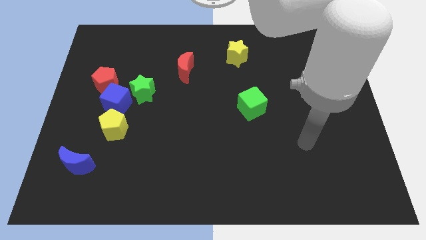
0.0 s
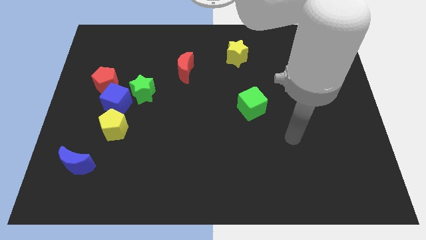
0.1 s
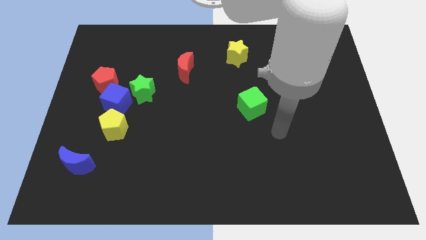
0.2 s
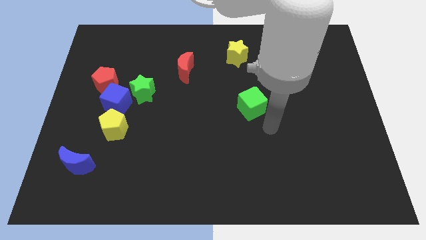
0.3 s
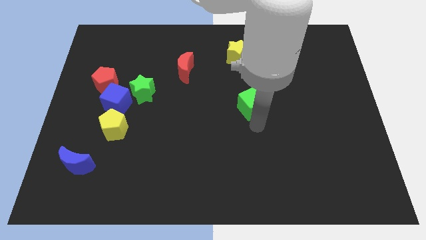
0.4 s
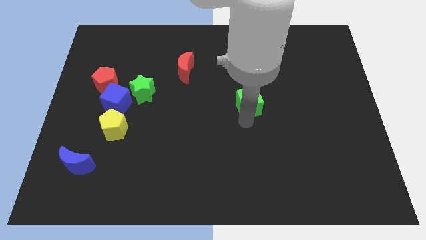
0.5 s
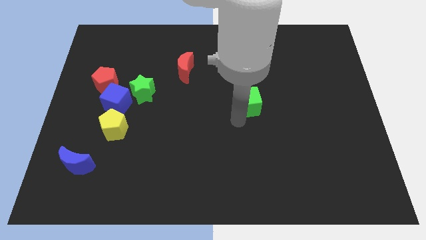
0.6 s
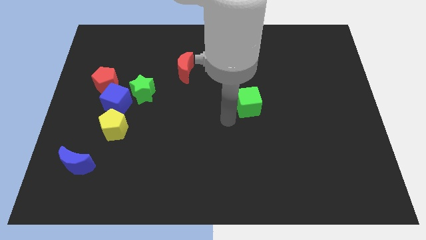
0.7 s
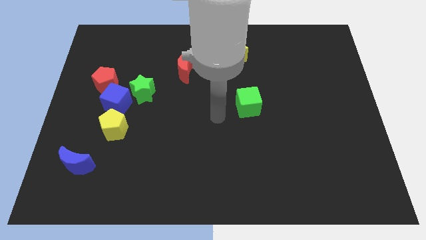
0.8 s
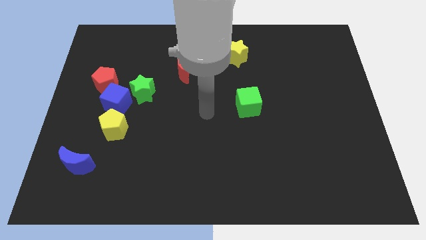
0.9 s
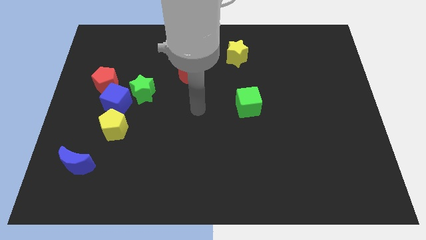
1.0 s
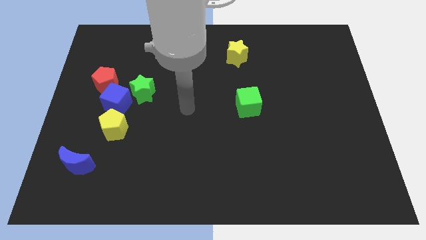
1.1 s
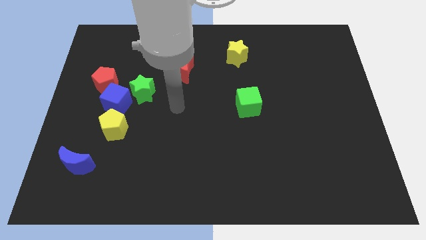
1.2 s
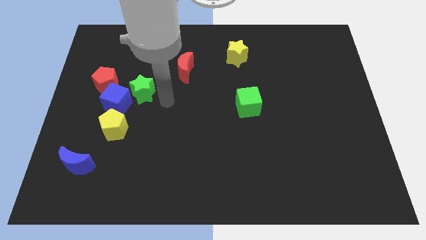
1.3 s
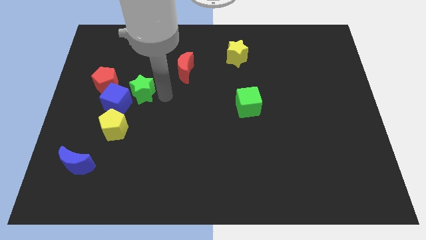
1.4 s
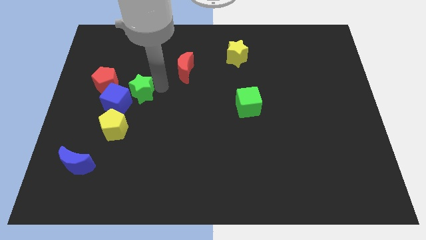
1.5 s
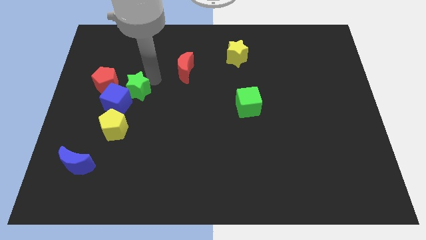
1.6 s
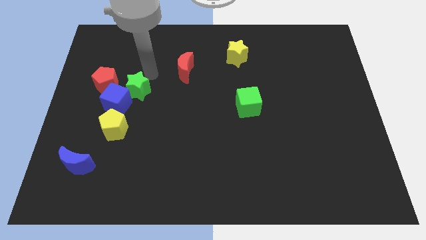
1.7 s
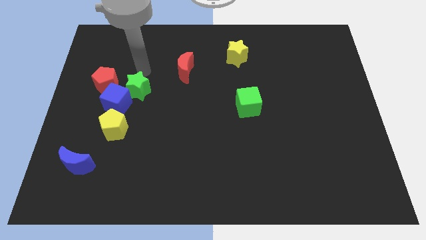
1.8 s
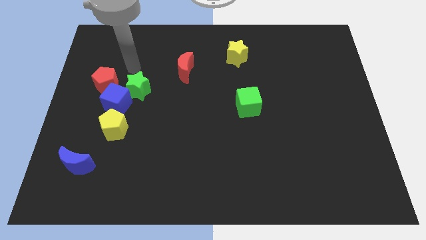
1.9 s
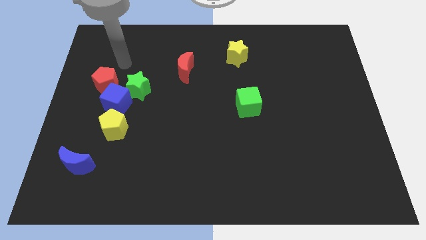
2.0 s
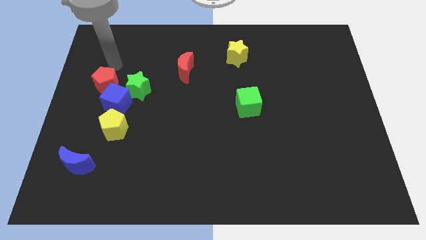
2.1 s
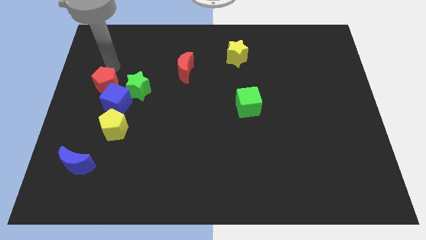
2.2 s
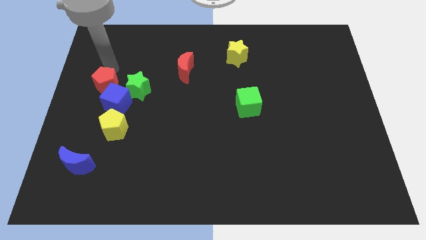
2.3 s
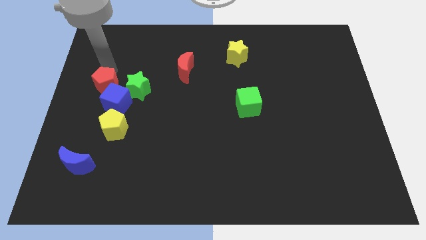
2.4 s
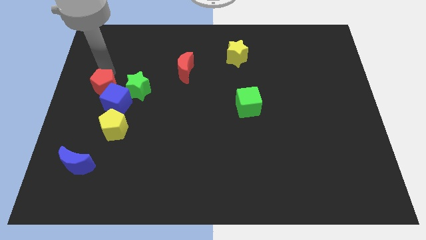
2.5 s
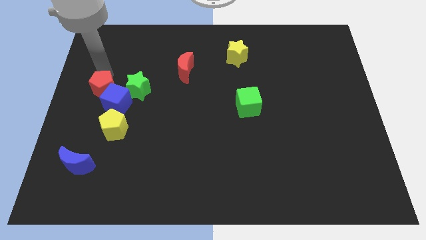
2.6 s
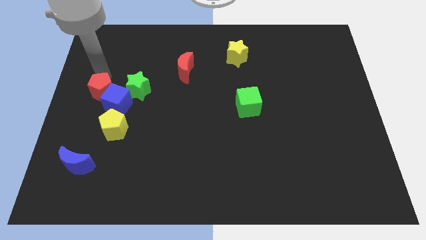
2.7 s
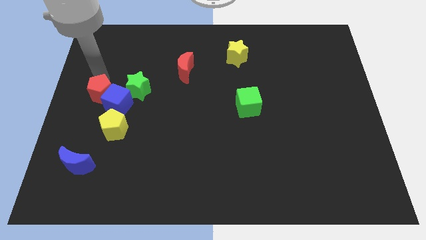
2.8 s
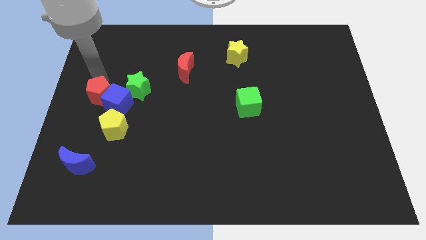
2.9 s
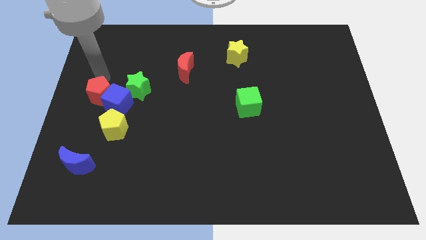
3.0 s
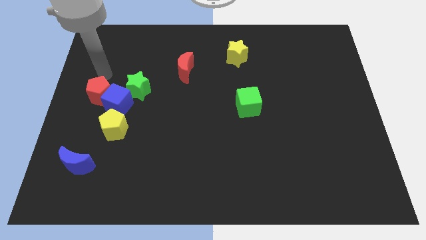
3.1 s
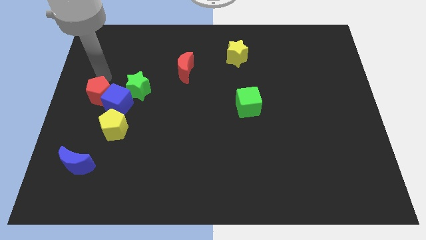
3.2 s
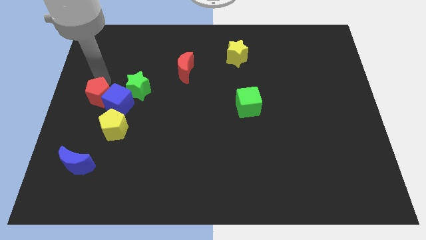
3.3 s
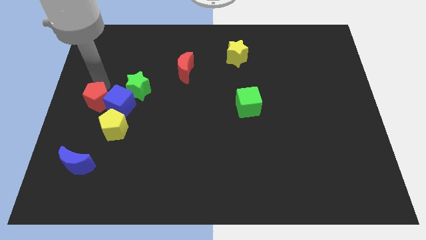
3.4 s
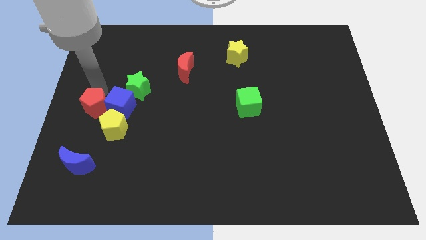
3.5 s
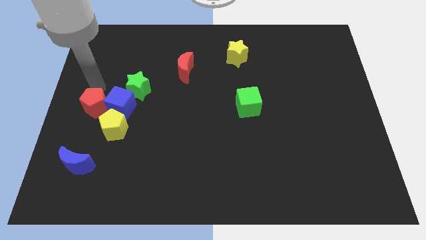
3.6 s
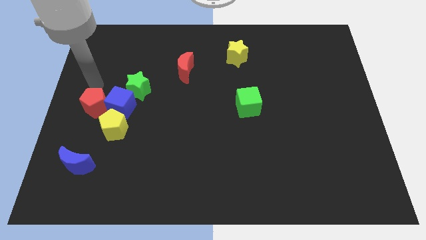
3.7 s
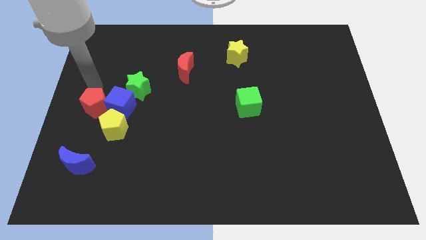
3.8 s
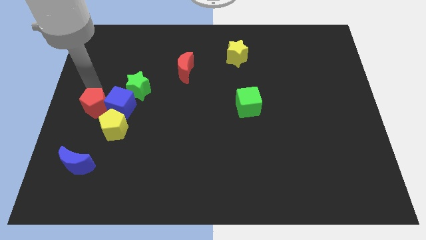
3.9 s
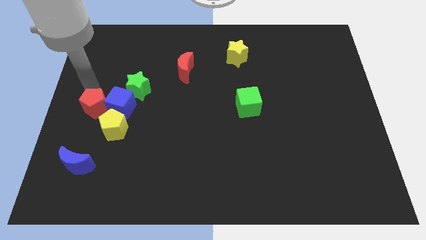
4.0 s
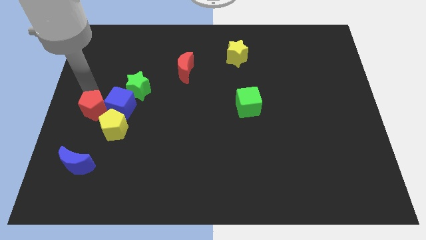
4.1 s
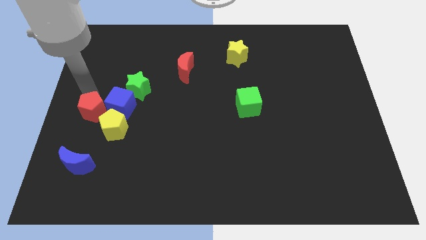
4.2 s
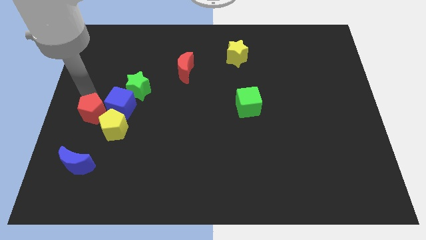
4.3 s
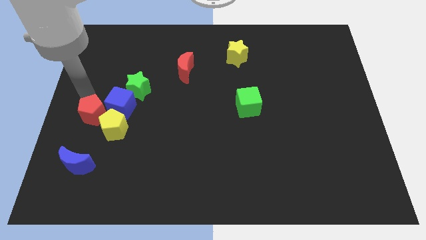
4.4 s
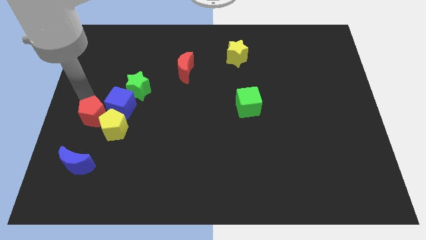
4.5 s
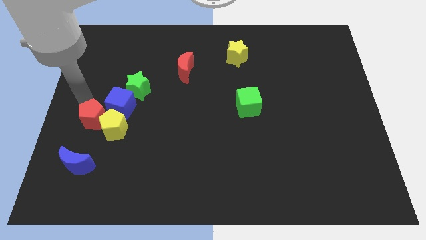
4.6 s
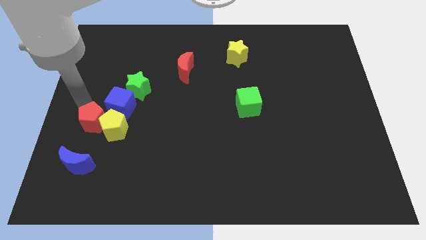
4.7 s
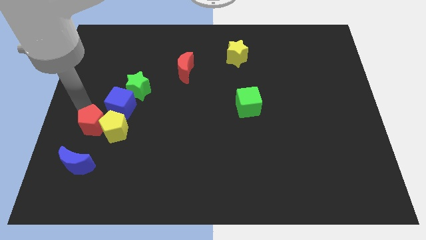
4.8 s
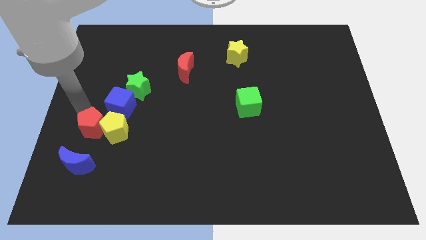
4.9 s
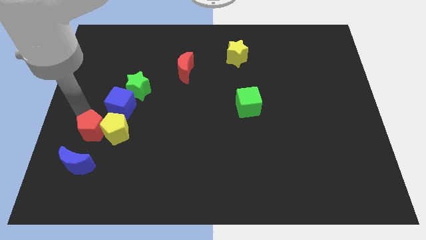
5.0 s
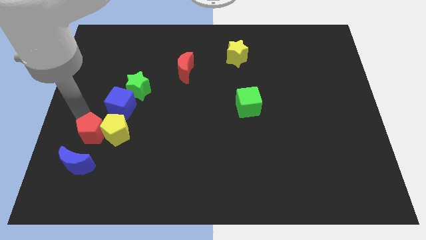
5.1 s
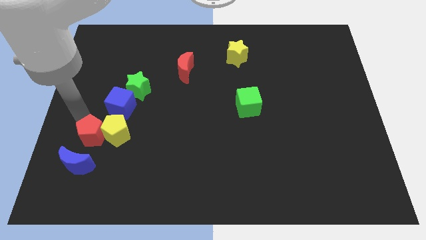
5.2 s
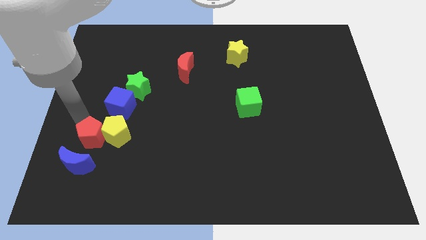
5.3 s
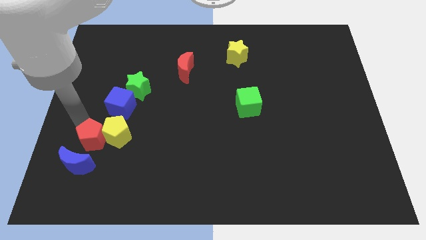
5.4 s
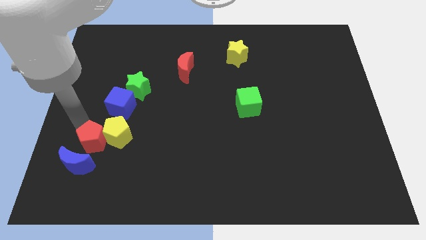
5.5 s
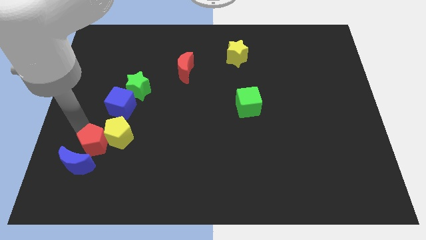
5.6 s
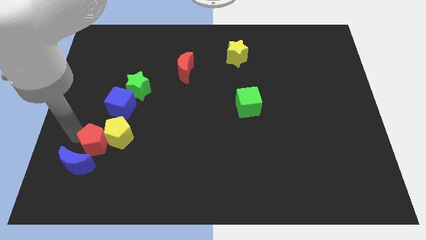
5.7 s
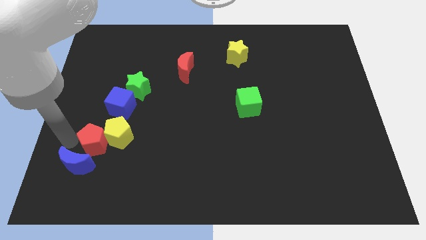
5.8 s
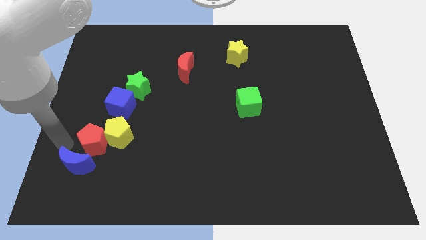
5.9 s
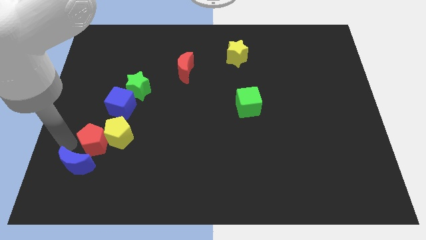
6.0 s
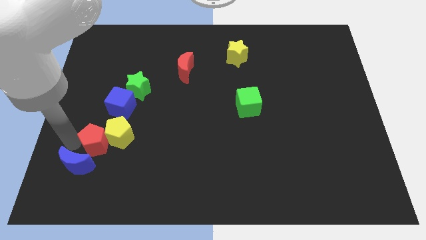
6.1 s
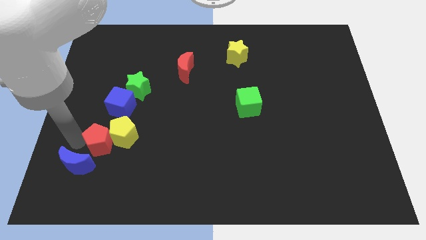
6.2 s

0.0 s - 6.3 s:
push the red pentagon a little diagonally downwards and to the right

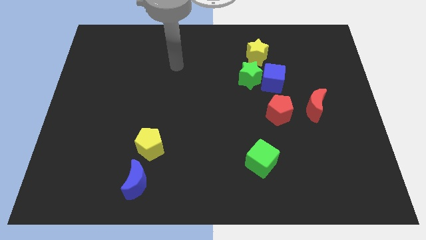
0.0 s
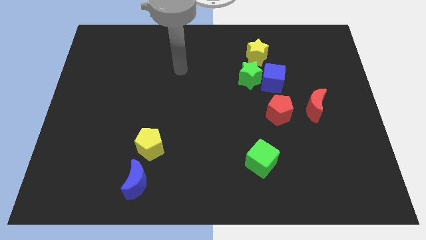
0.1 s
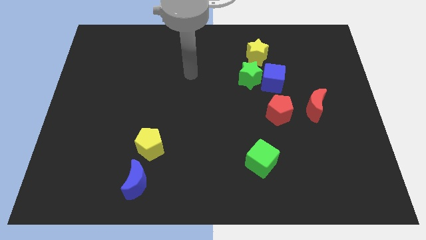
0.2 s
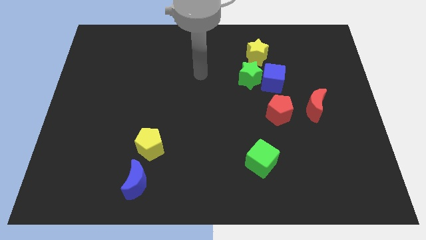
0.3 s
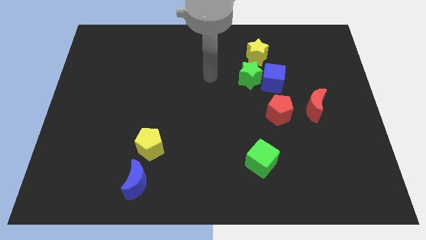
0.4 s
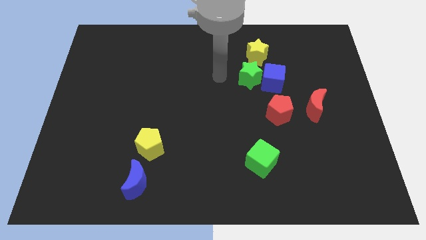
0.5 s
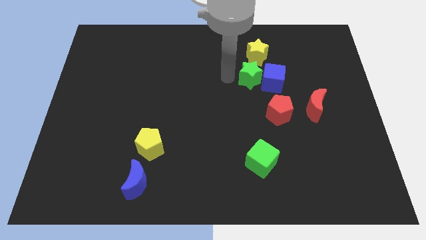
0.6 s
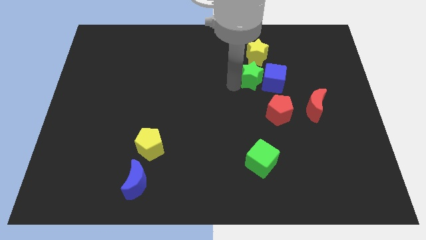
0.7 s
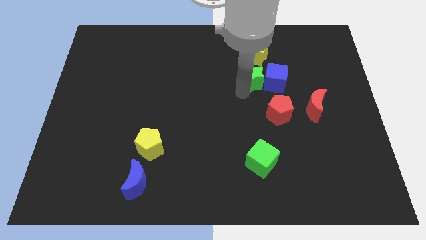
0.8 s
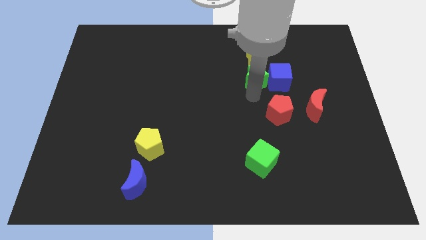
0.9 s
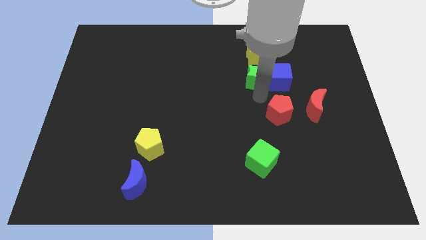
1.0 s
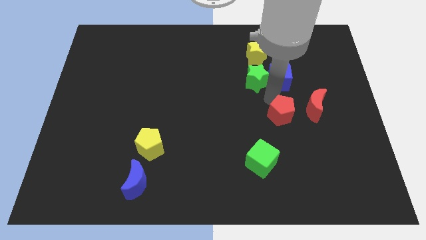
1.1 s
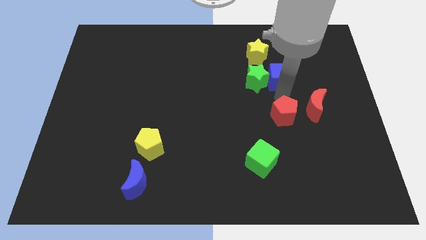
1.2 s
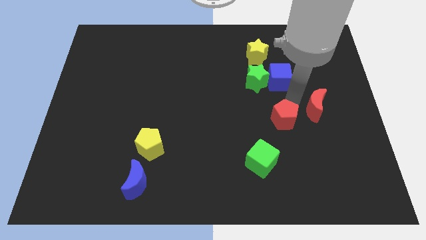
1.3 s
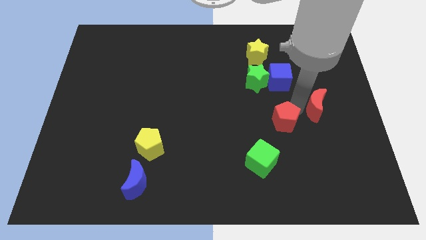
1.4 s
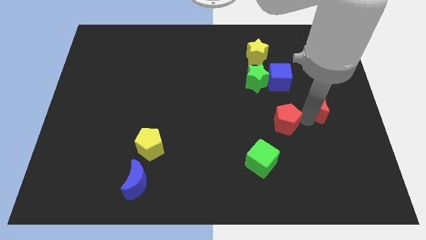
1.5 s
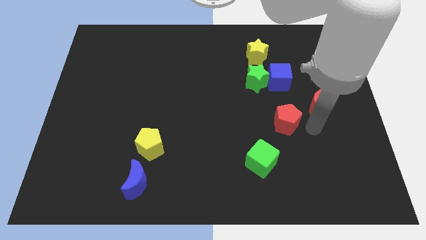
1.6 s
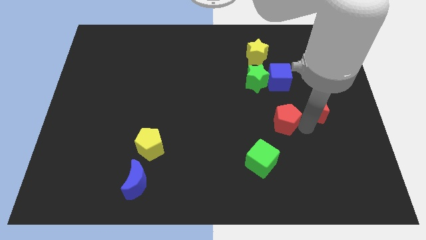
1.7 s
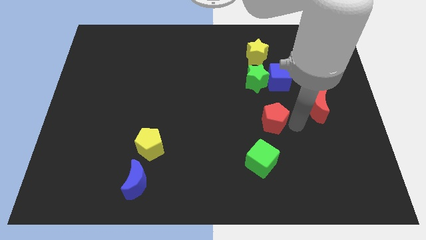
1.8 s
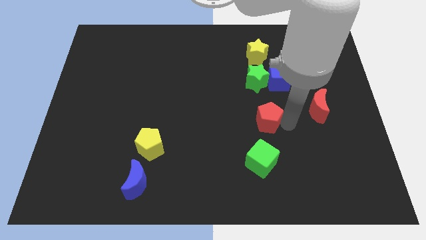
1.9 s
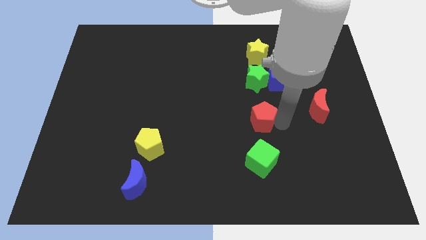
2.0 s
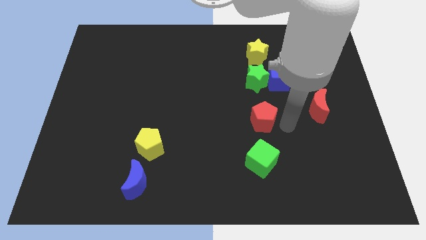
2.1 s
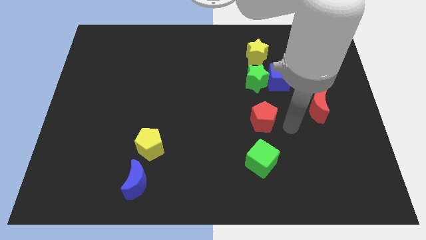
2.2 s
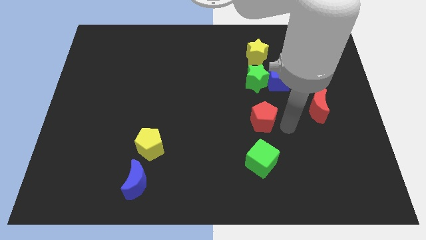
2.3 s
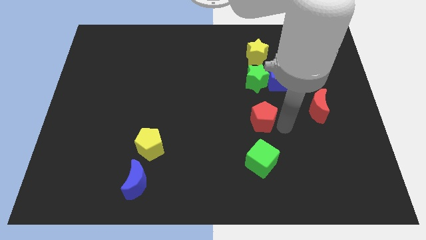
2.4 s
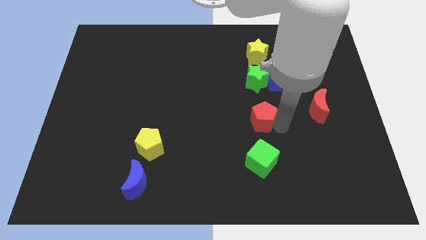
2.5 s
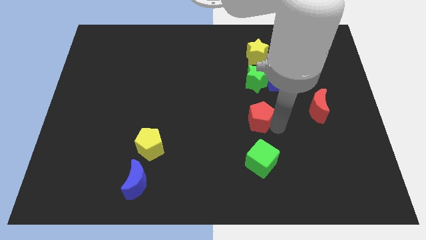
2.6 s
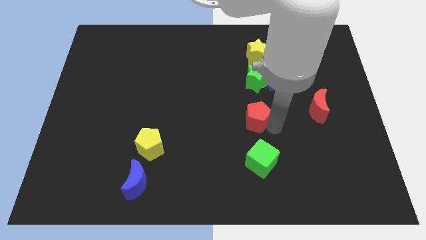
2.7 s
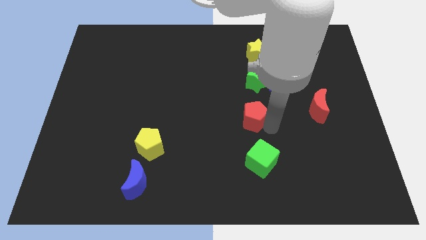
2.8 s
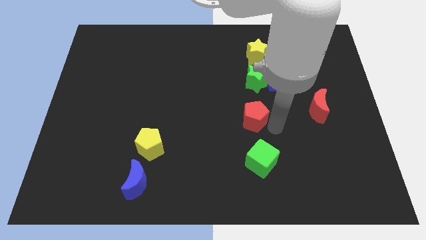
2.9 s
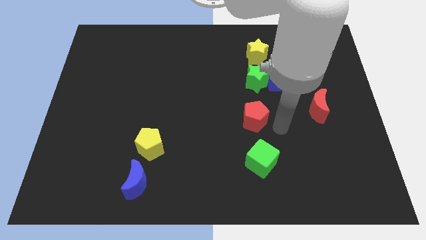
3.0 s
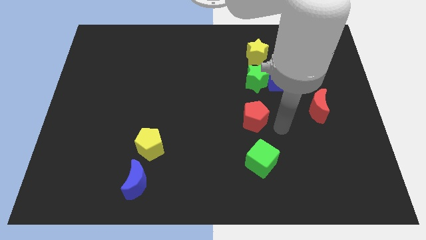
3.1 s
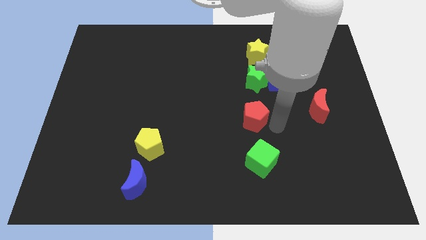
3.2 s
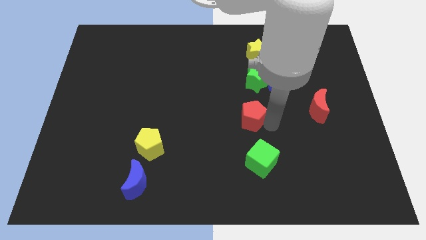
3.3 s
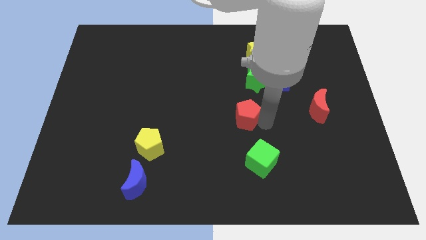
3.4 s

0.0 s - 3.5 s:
slightly move the red pentagon to the left
